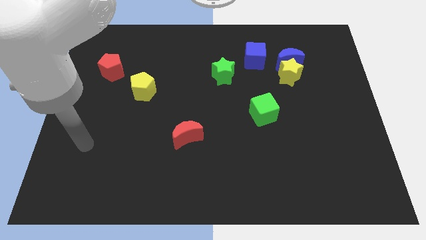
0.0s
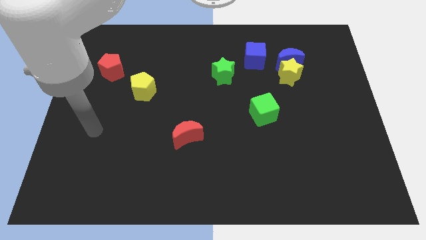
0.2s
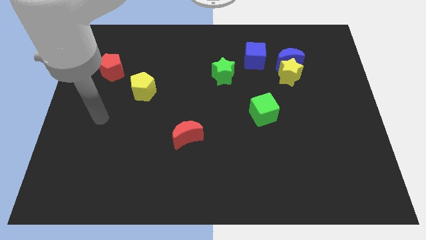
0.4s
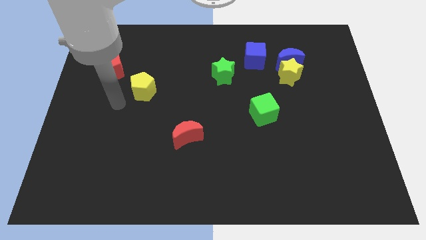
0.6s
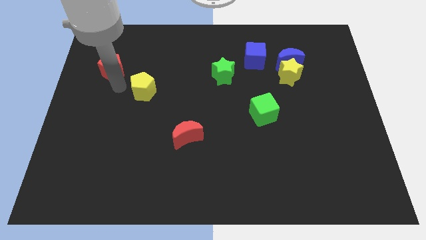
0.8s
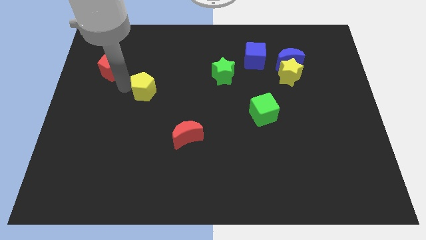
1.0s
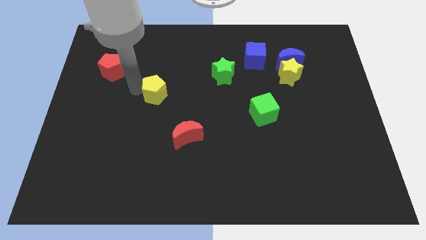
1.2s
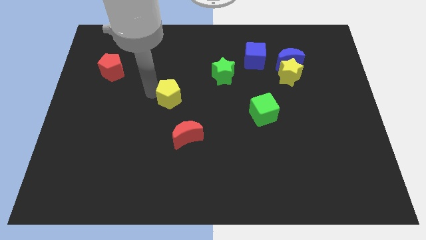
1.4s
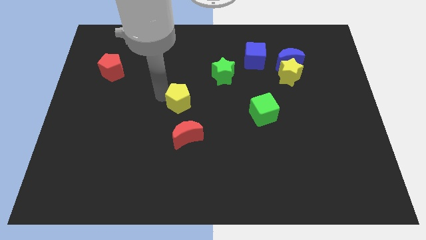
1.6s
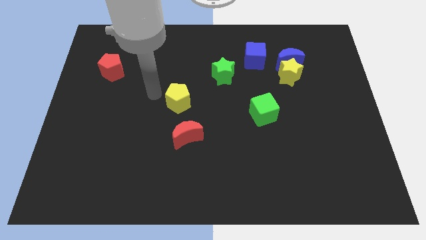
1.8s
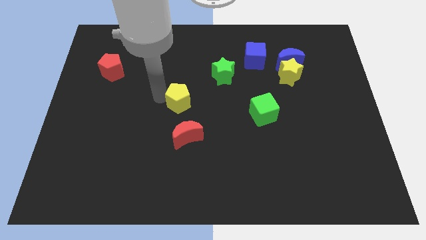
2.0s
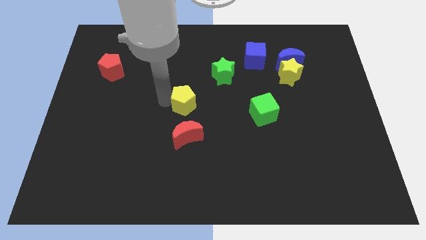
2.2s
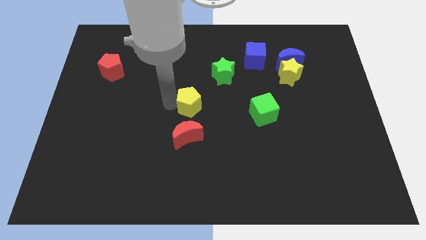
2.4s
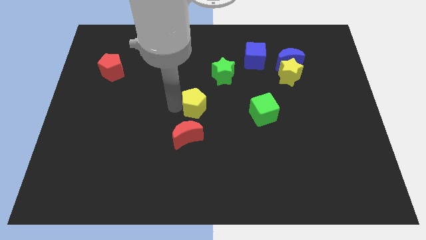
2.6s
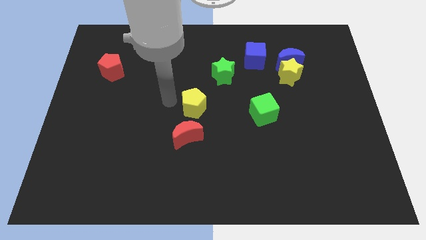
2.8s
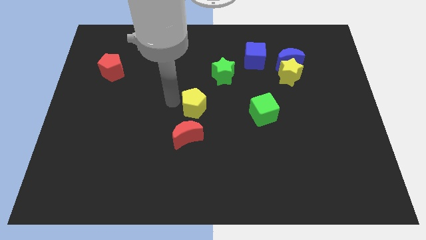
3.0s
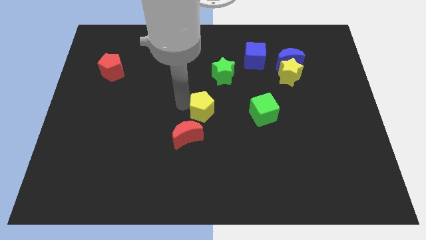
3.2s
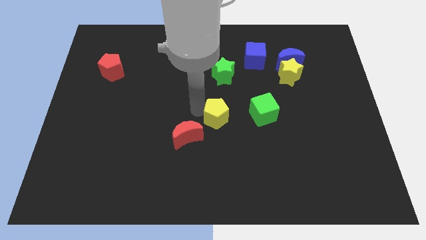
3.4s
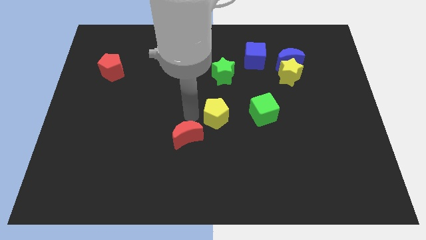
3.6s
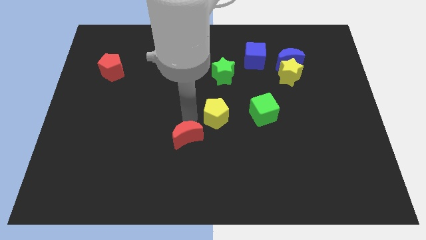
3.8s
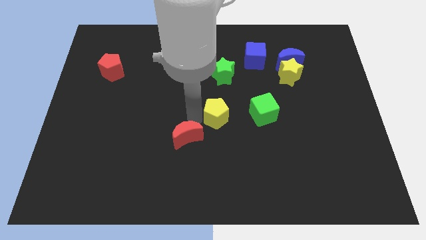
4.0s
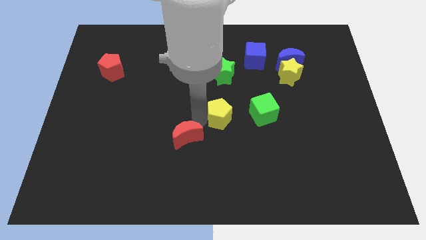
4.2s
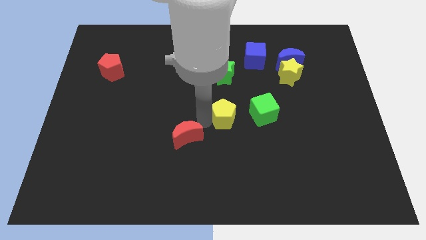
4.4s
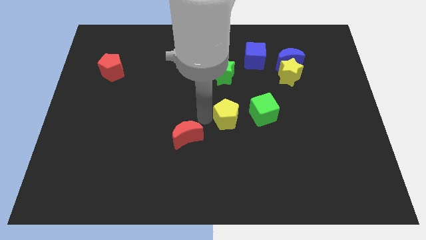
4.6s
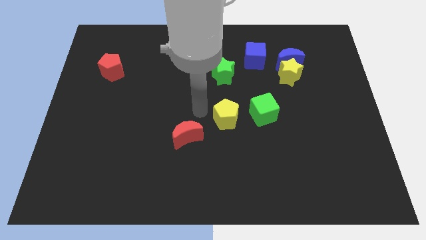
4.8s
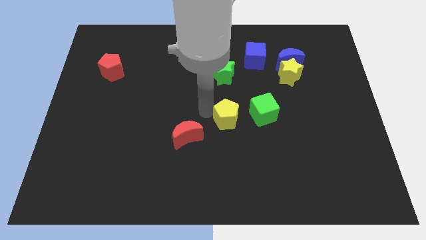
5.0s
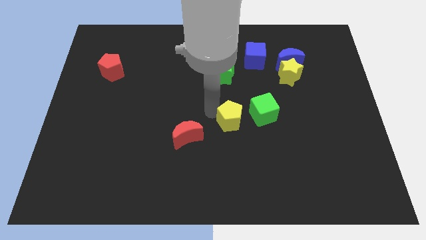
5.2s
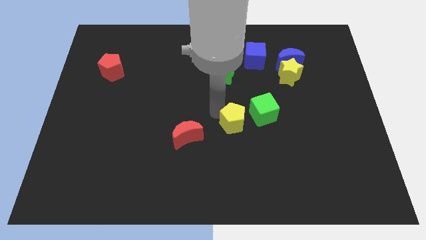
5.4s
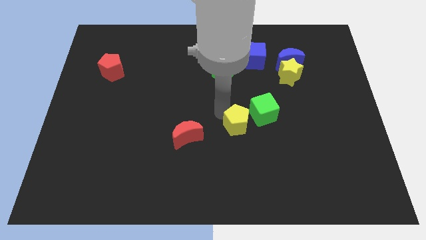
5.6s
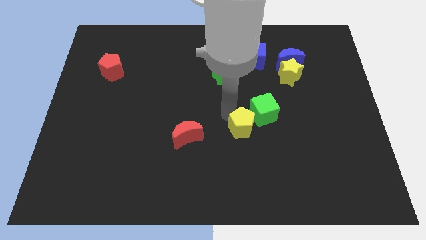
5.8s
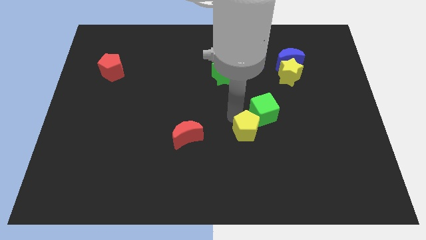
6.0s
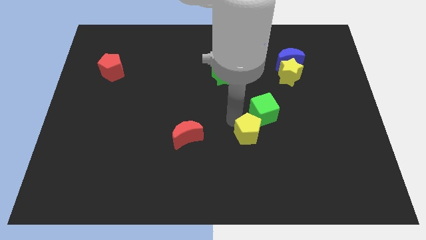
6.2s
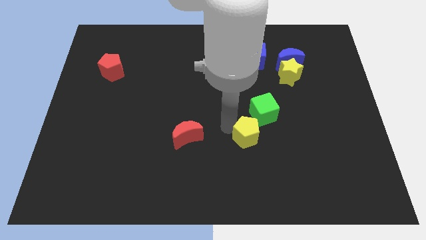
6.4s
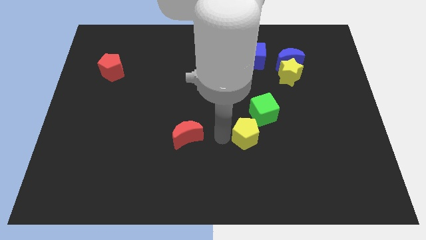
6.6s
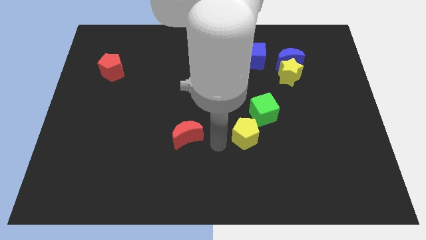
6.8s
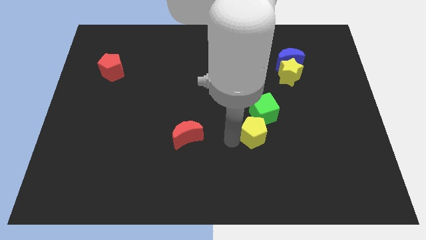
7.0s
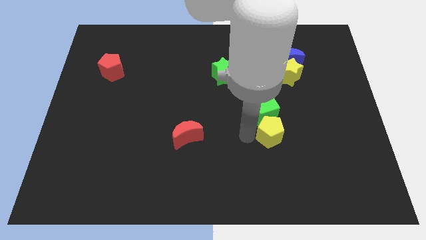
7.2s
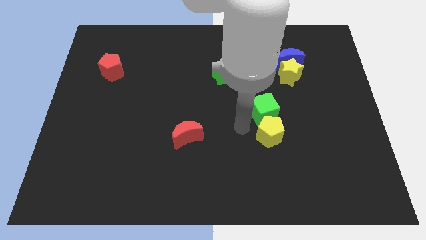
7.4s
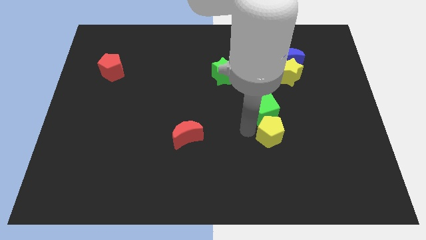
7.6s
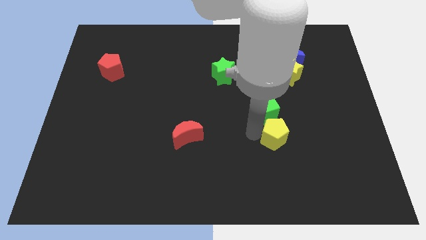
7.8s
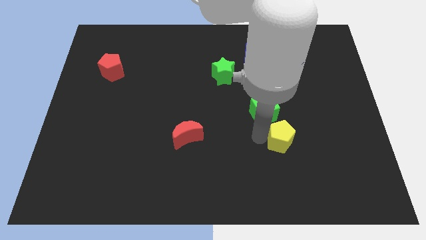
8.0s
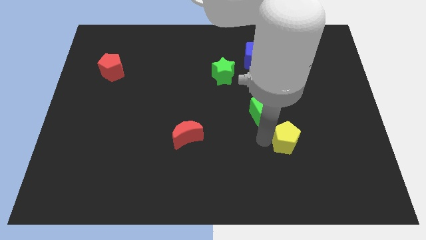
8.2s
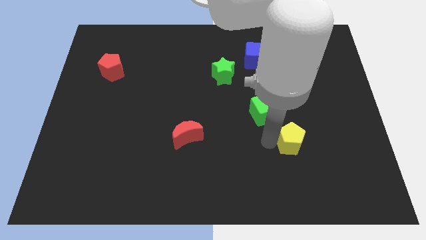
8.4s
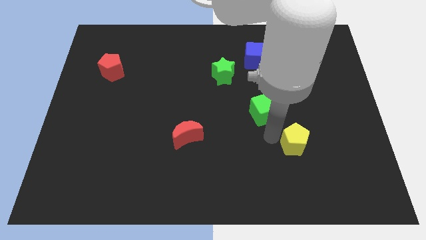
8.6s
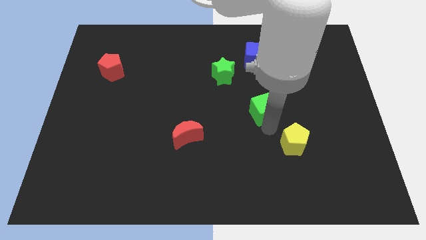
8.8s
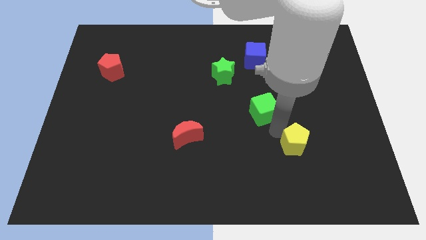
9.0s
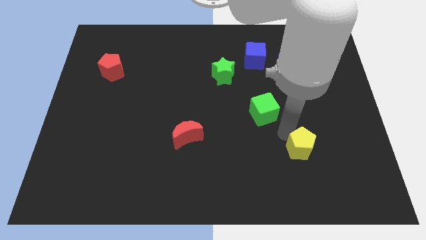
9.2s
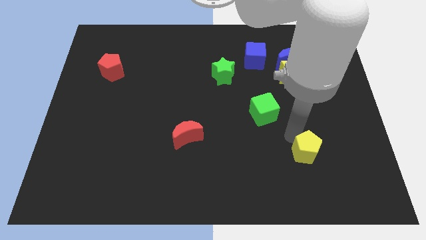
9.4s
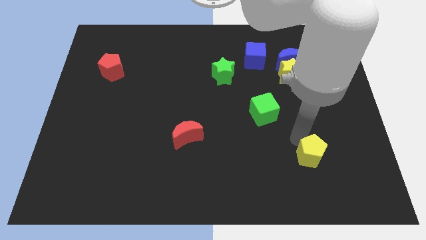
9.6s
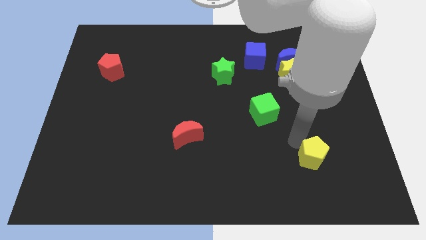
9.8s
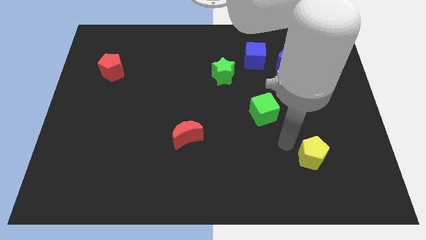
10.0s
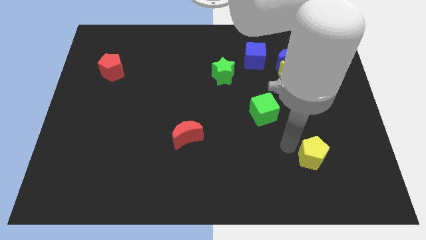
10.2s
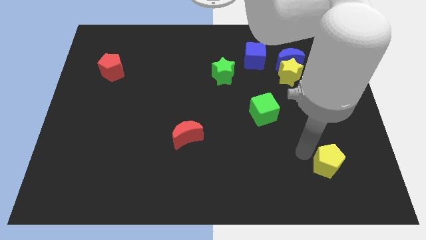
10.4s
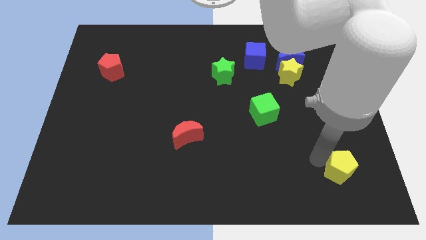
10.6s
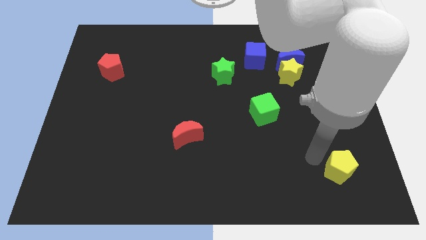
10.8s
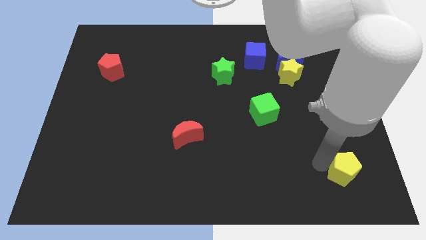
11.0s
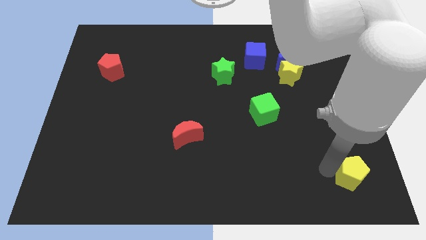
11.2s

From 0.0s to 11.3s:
push the yellow pentagon to the lower right corner
